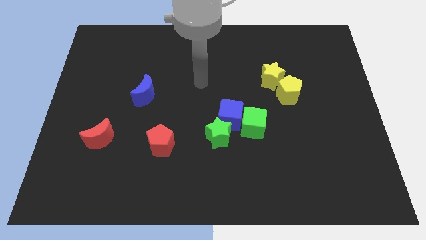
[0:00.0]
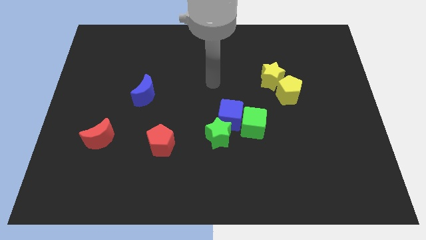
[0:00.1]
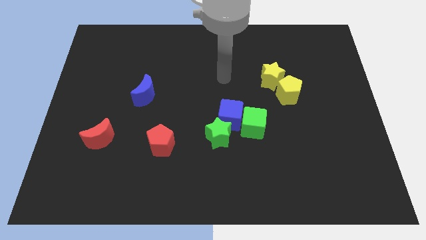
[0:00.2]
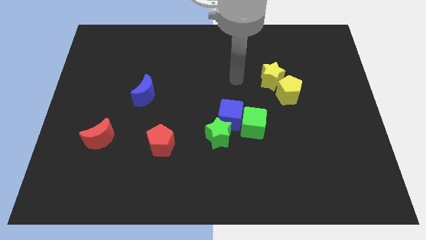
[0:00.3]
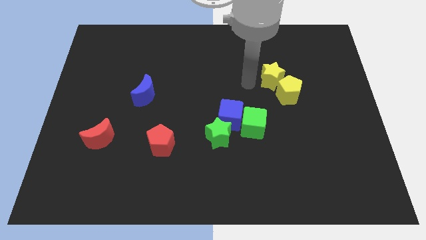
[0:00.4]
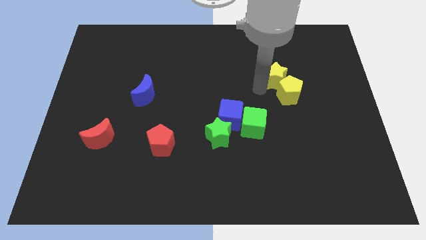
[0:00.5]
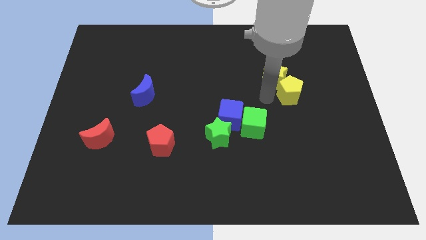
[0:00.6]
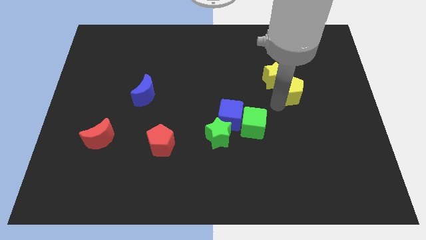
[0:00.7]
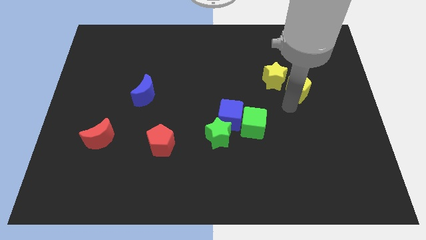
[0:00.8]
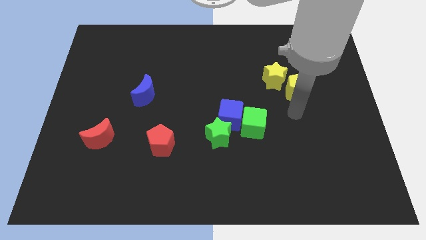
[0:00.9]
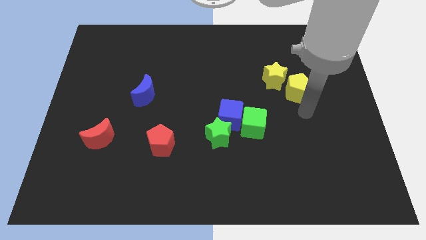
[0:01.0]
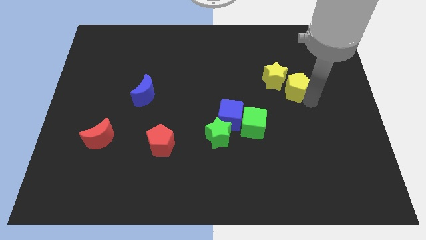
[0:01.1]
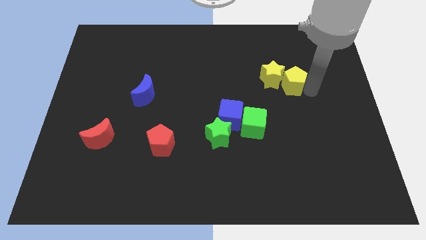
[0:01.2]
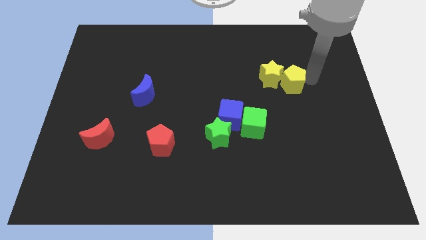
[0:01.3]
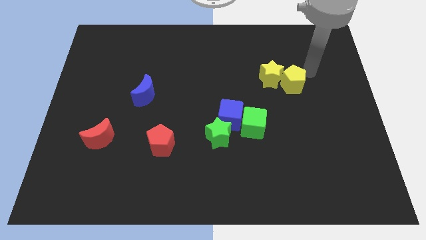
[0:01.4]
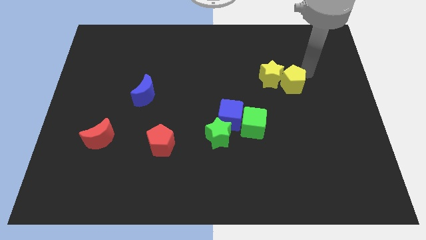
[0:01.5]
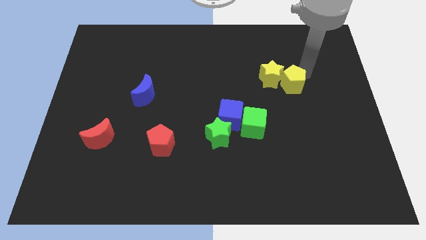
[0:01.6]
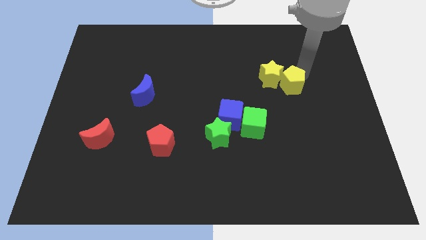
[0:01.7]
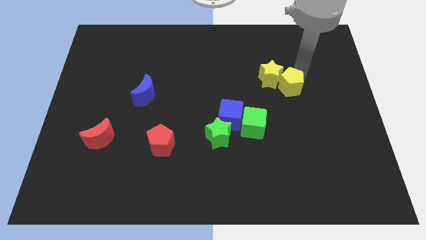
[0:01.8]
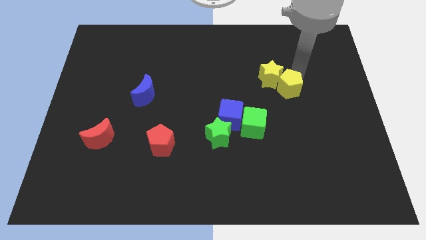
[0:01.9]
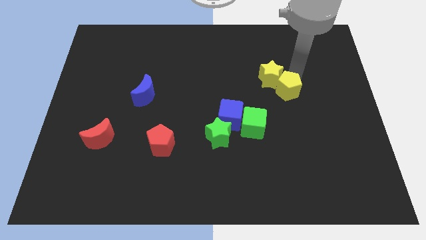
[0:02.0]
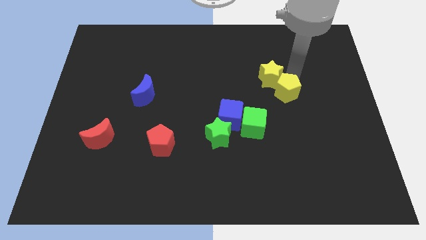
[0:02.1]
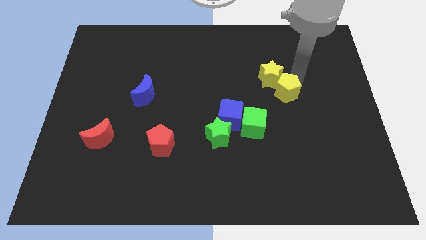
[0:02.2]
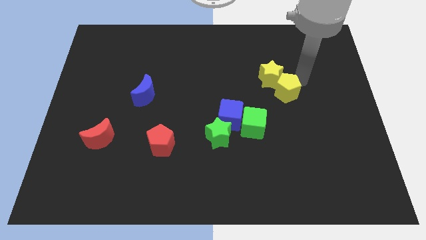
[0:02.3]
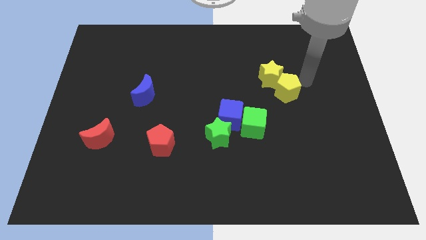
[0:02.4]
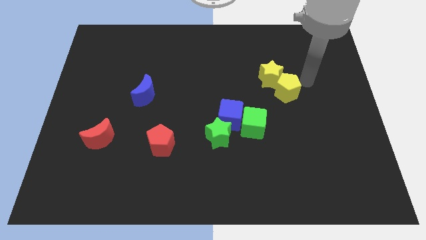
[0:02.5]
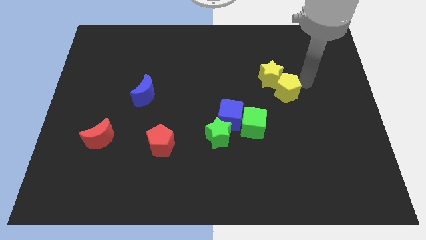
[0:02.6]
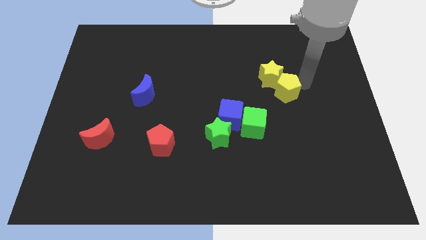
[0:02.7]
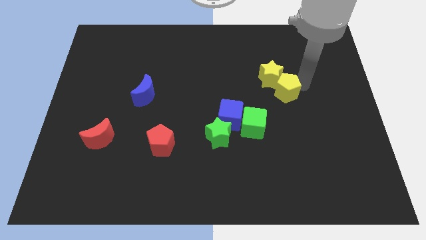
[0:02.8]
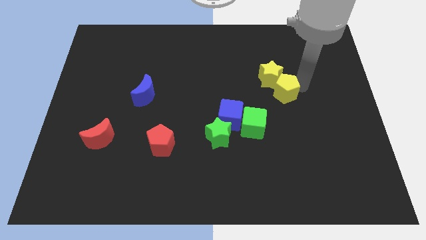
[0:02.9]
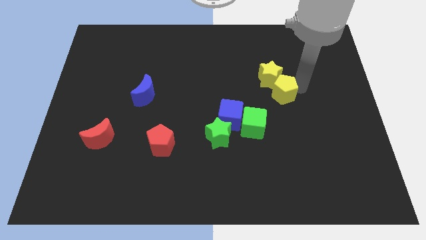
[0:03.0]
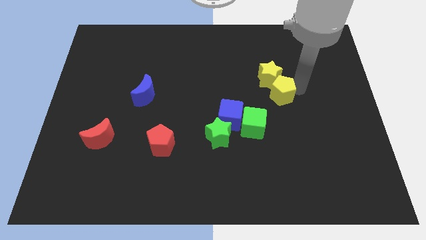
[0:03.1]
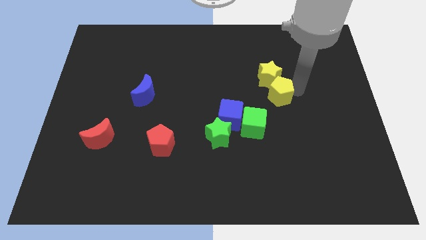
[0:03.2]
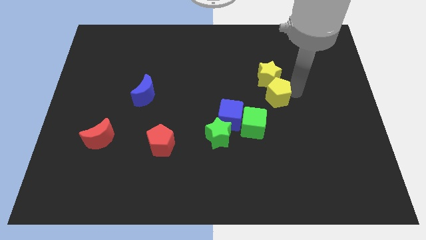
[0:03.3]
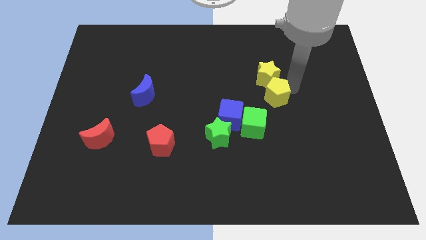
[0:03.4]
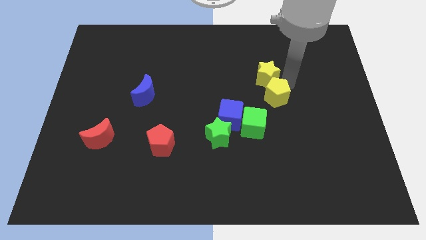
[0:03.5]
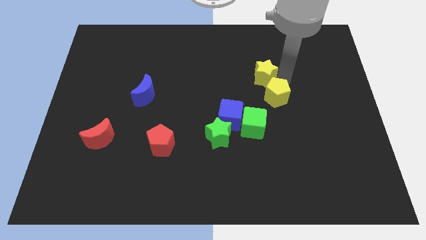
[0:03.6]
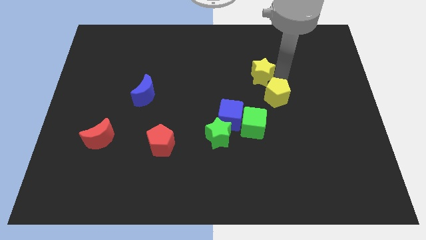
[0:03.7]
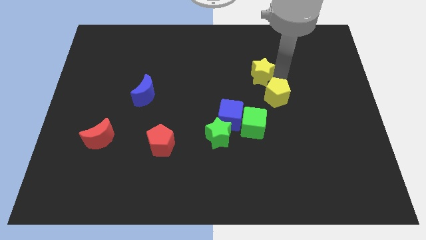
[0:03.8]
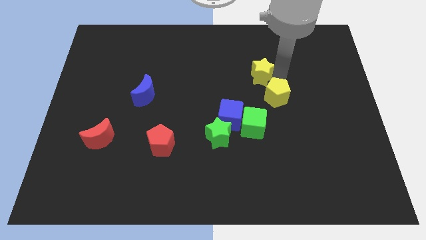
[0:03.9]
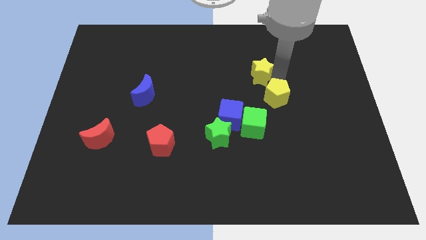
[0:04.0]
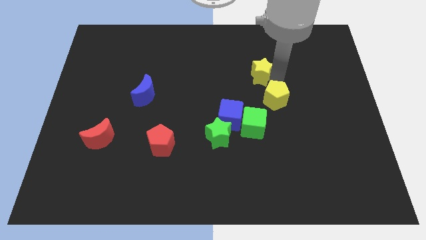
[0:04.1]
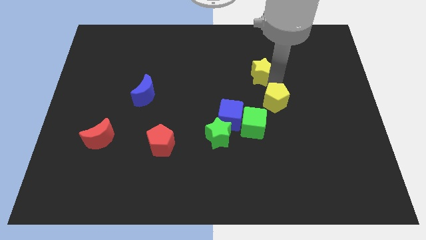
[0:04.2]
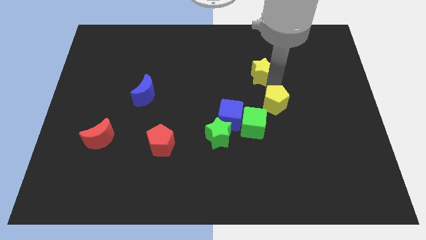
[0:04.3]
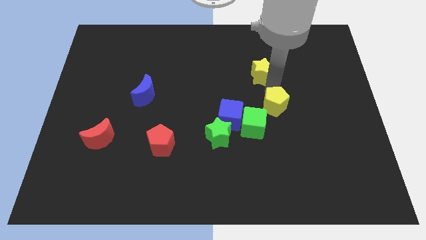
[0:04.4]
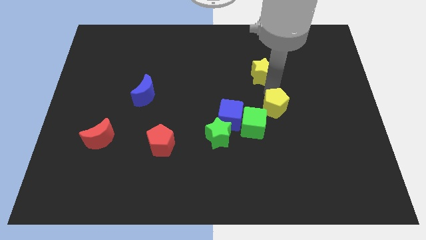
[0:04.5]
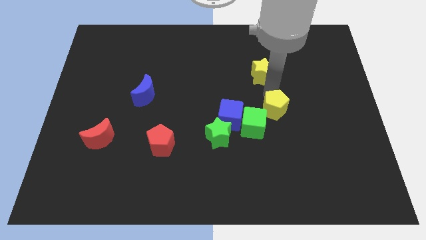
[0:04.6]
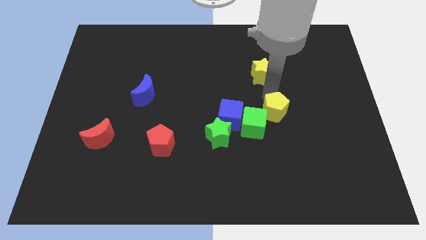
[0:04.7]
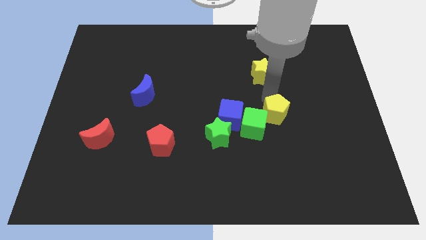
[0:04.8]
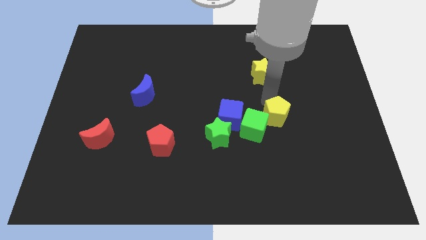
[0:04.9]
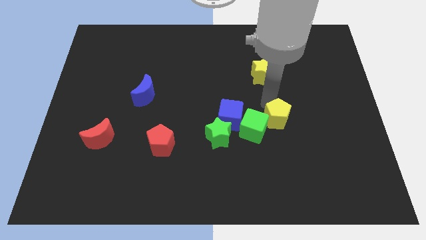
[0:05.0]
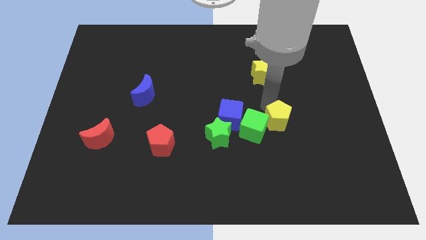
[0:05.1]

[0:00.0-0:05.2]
move the yellow pentagon just right of the green star

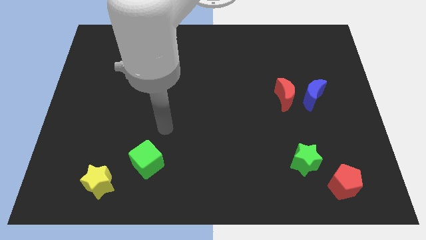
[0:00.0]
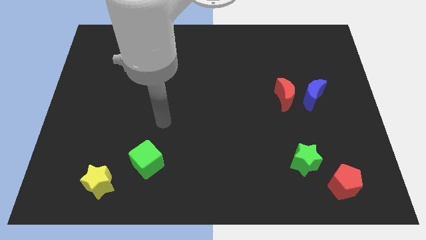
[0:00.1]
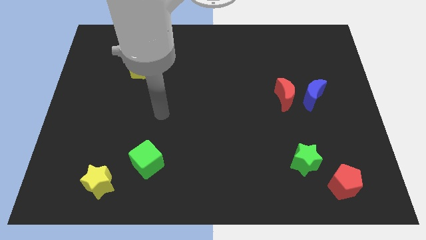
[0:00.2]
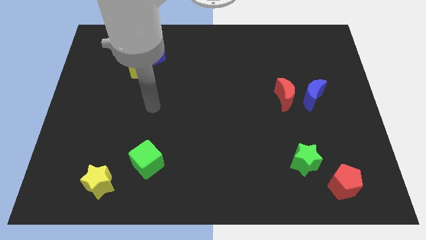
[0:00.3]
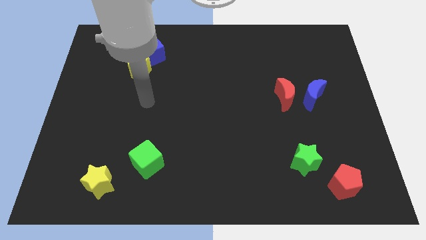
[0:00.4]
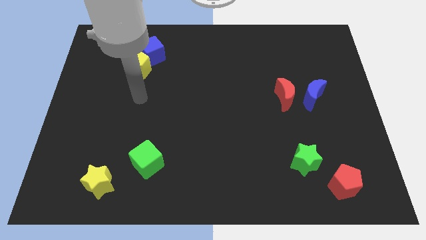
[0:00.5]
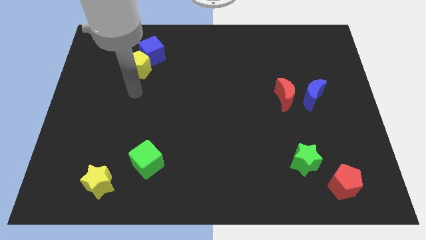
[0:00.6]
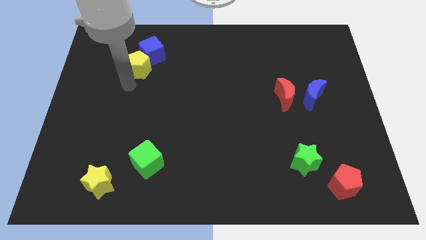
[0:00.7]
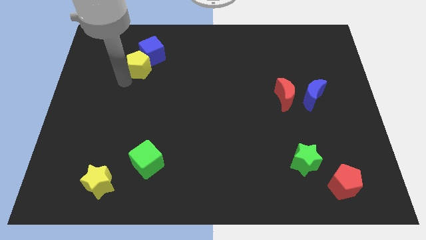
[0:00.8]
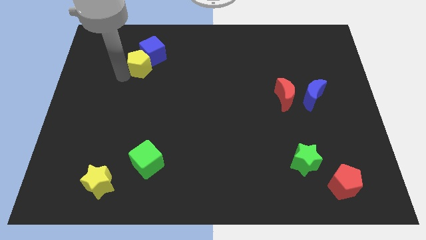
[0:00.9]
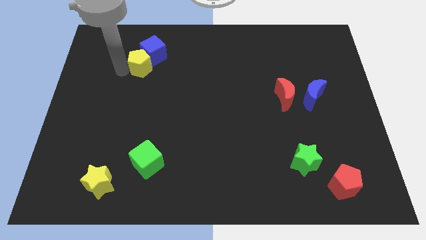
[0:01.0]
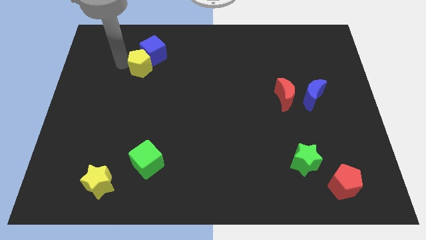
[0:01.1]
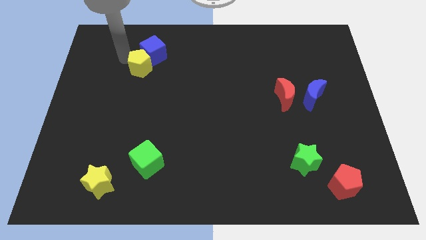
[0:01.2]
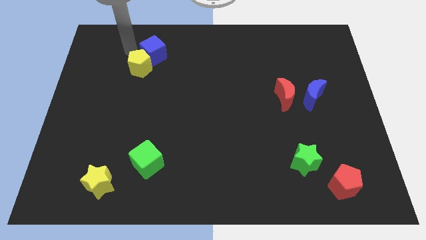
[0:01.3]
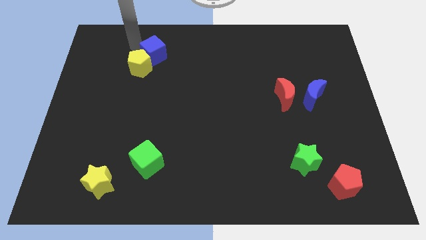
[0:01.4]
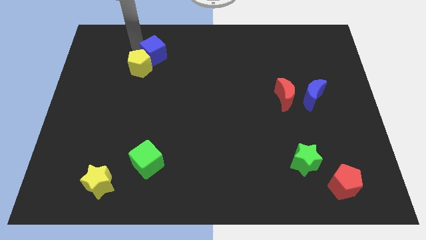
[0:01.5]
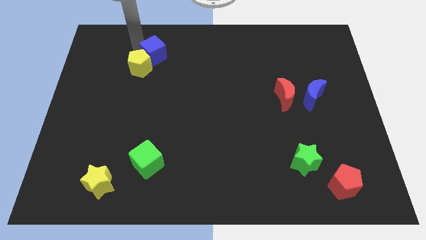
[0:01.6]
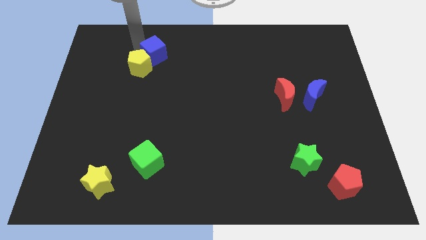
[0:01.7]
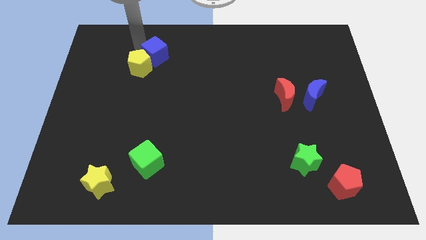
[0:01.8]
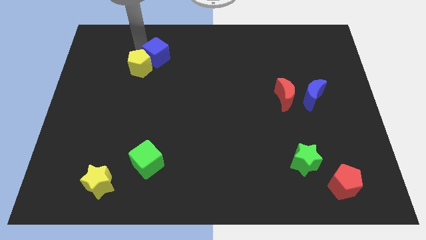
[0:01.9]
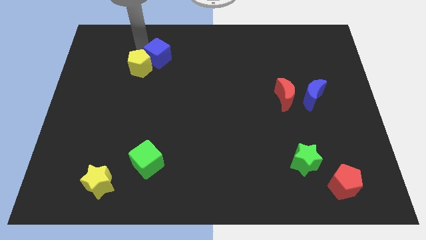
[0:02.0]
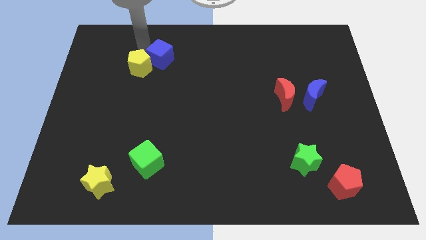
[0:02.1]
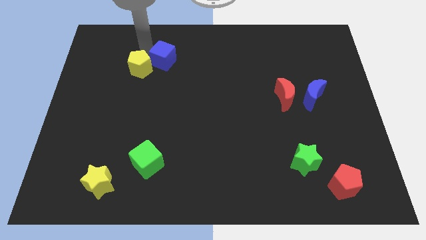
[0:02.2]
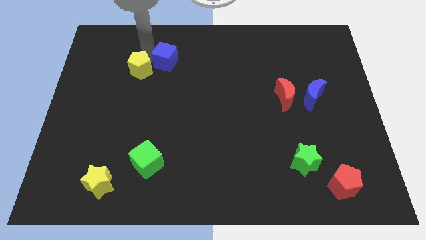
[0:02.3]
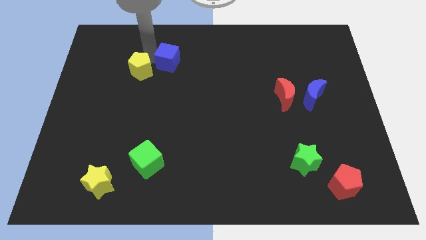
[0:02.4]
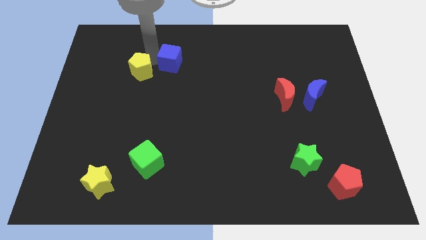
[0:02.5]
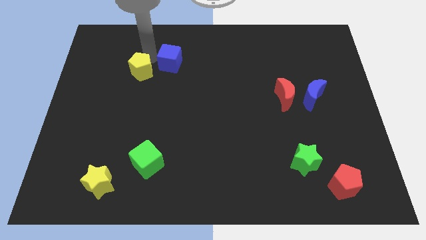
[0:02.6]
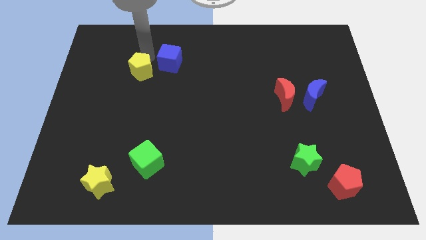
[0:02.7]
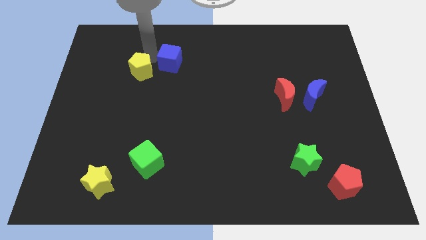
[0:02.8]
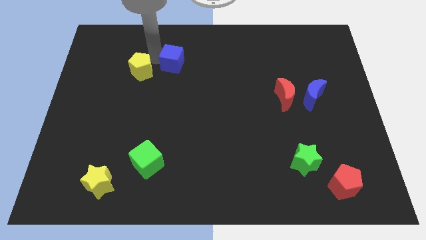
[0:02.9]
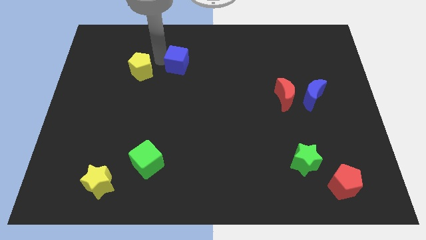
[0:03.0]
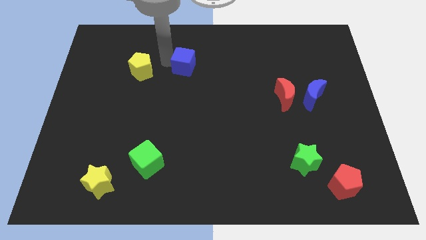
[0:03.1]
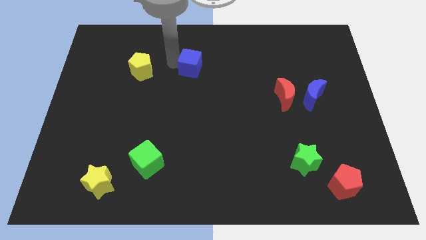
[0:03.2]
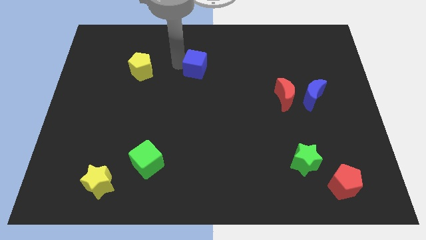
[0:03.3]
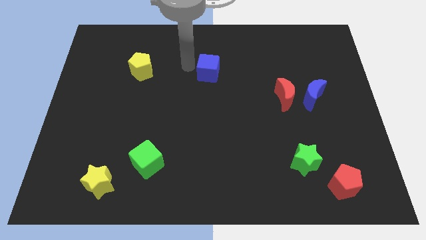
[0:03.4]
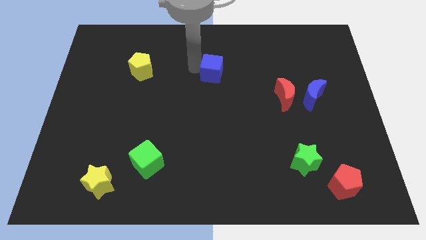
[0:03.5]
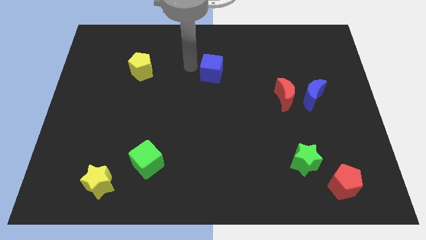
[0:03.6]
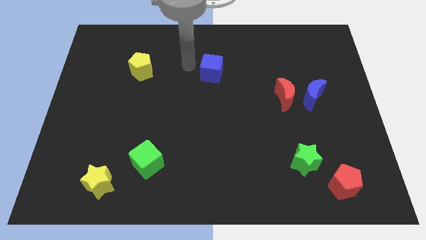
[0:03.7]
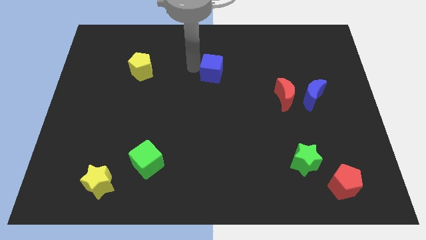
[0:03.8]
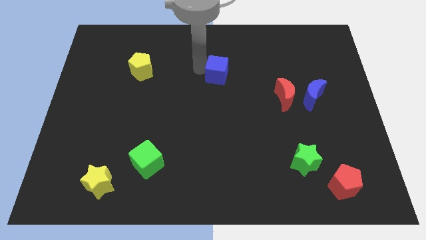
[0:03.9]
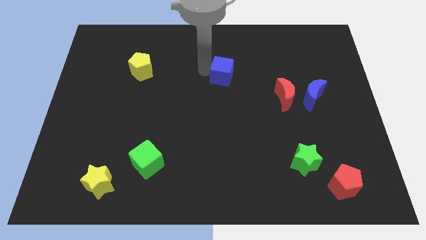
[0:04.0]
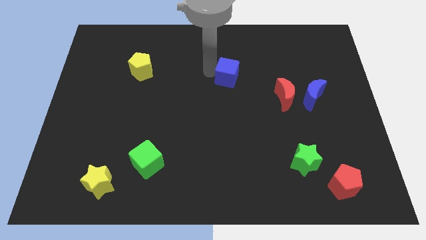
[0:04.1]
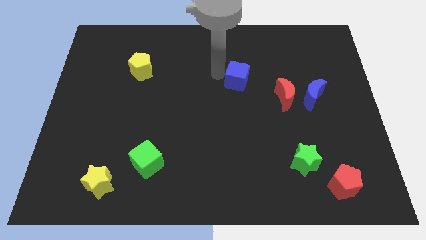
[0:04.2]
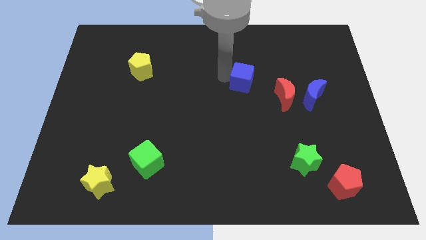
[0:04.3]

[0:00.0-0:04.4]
put the blue cube diagonally up and to the left of the red moon
